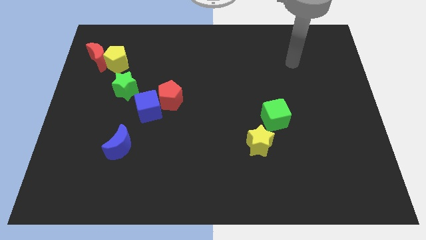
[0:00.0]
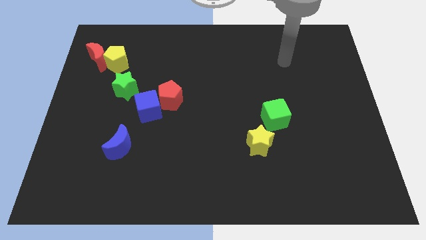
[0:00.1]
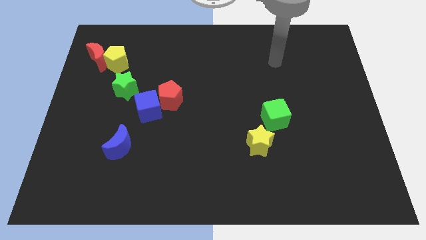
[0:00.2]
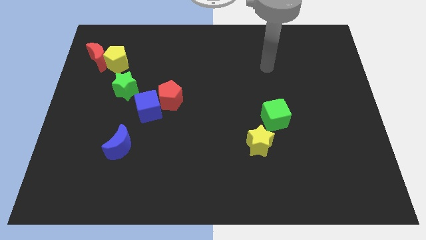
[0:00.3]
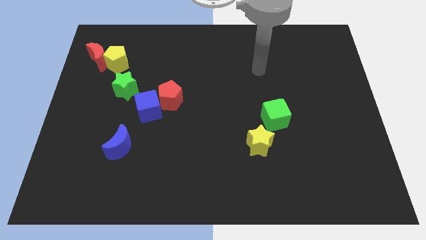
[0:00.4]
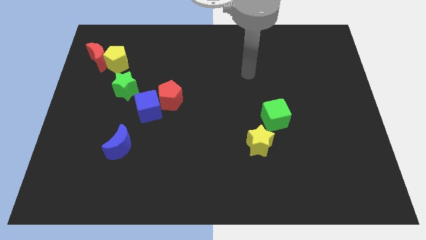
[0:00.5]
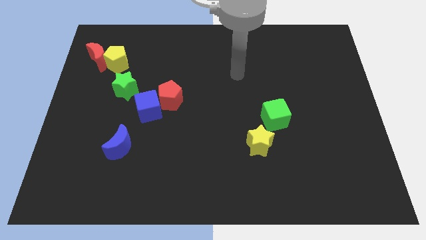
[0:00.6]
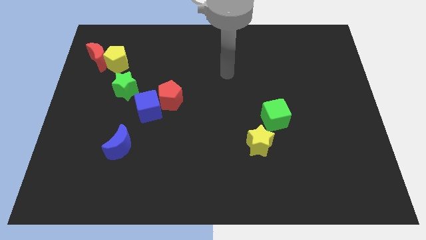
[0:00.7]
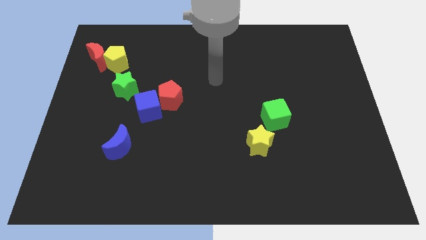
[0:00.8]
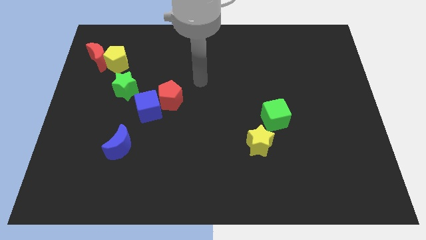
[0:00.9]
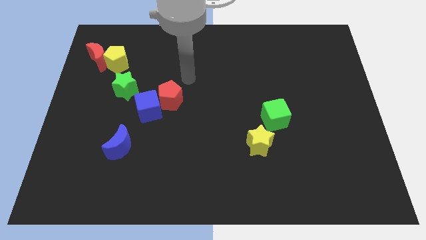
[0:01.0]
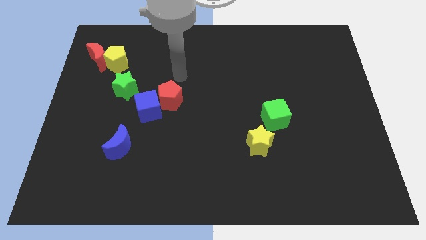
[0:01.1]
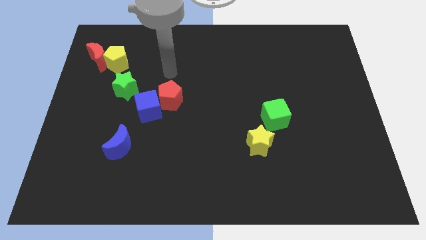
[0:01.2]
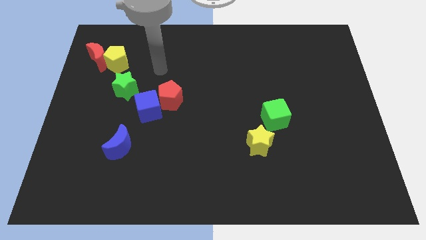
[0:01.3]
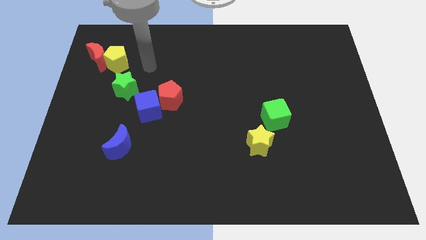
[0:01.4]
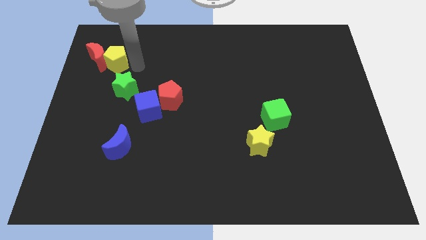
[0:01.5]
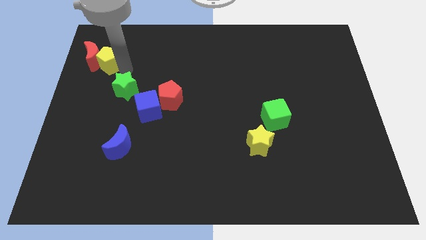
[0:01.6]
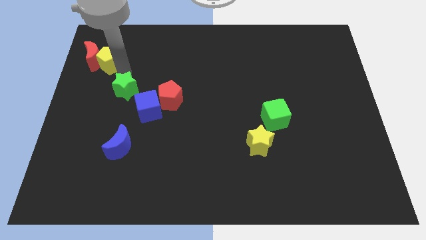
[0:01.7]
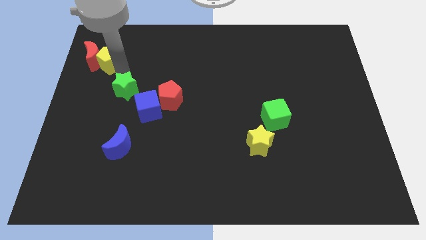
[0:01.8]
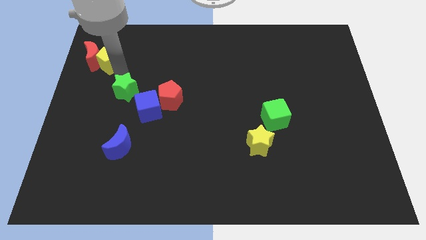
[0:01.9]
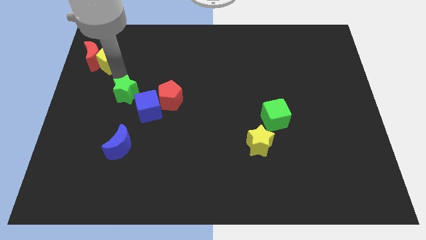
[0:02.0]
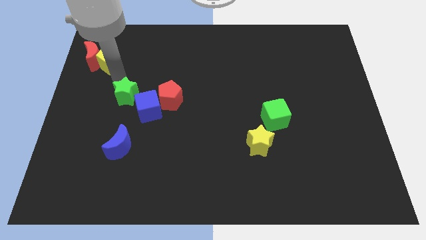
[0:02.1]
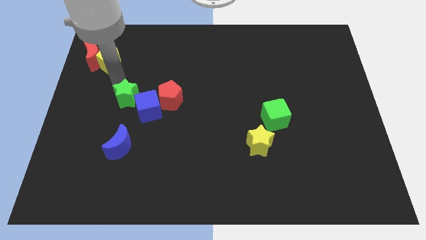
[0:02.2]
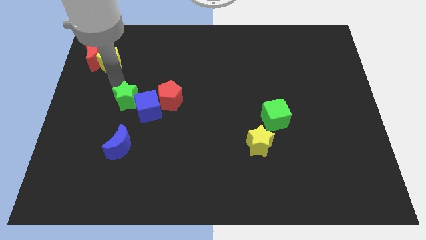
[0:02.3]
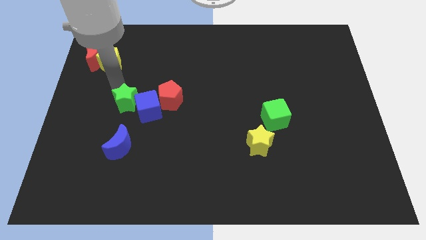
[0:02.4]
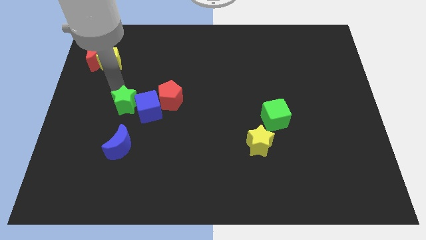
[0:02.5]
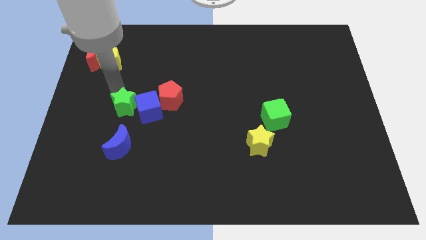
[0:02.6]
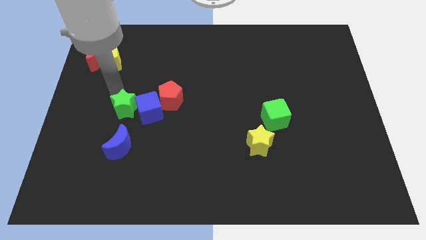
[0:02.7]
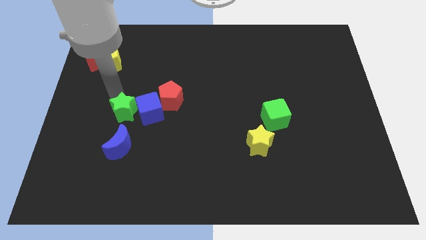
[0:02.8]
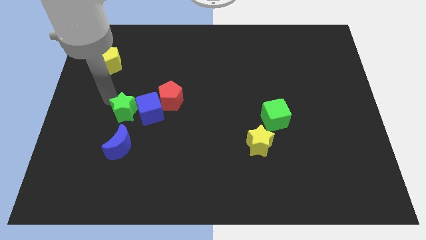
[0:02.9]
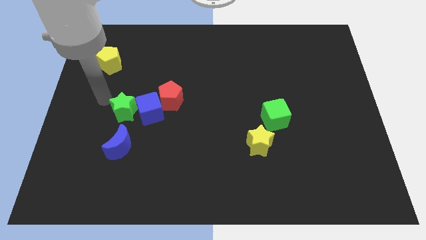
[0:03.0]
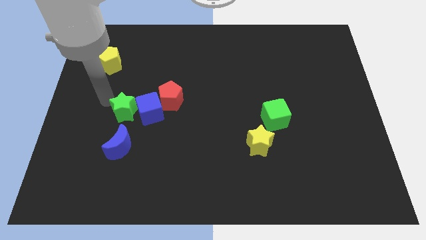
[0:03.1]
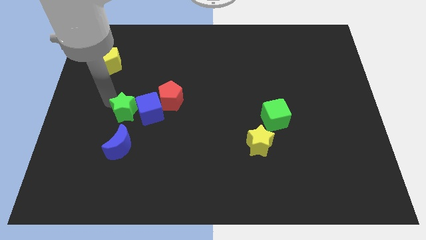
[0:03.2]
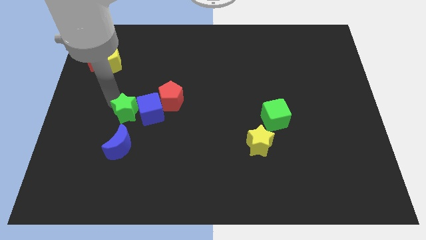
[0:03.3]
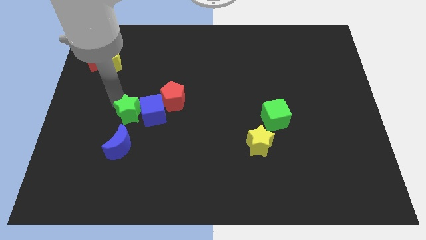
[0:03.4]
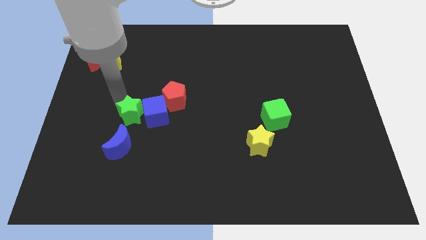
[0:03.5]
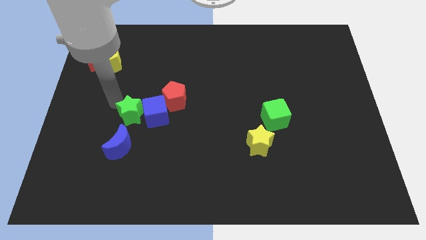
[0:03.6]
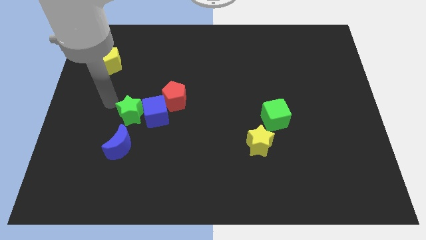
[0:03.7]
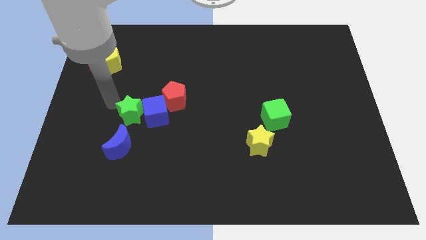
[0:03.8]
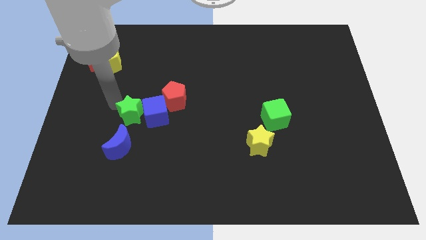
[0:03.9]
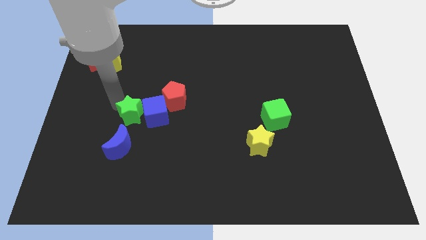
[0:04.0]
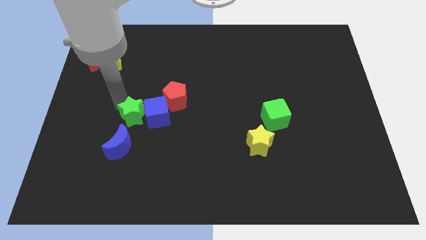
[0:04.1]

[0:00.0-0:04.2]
move the green star a little bit diagonally downwards and right

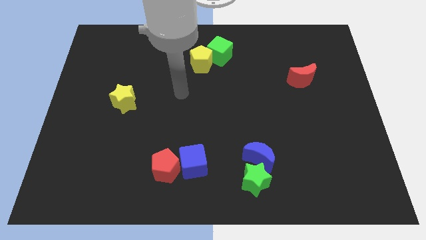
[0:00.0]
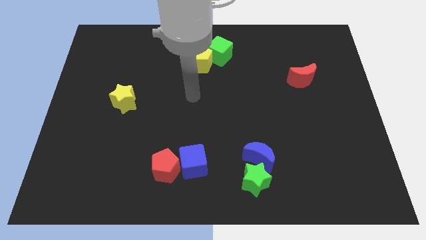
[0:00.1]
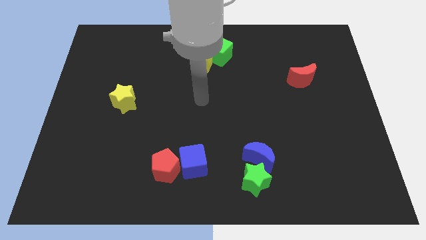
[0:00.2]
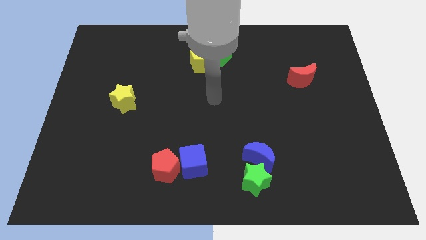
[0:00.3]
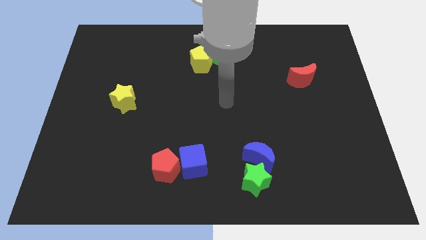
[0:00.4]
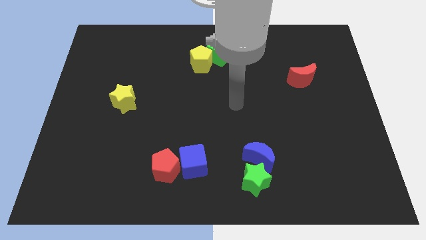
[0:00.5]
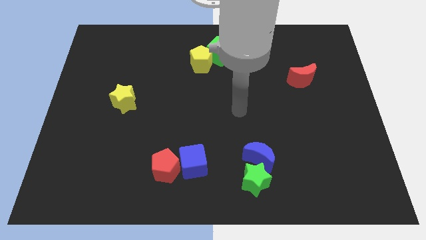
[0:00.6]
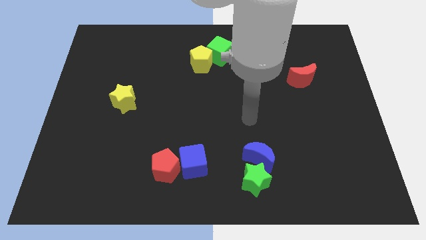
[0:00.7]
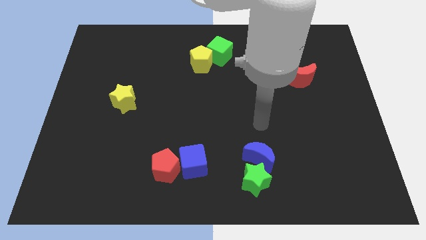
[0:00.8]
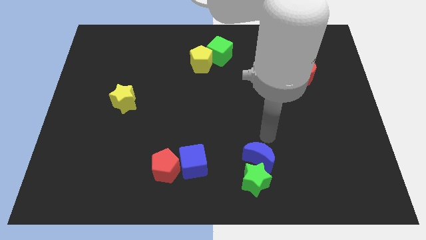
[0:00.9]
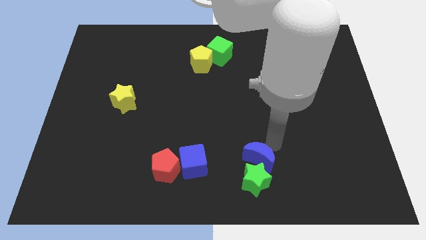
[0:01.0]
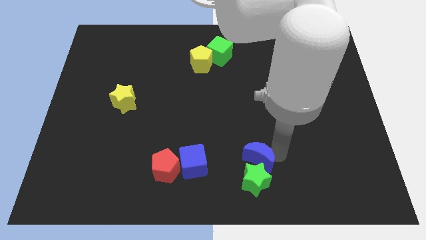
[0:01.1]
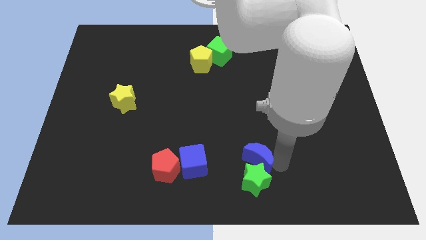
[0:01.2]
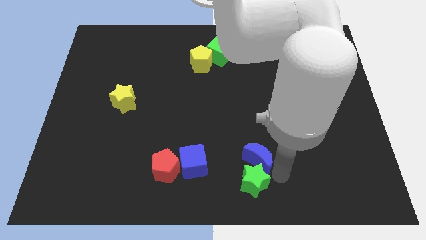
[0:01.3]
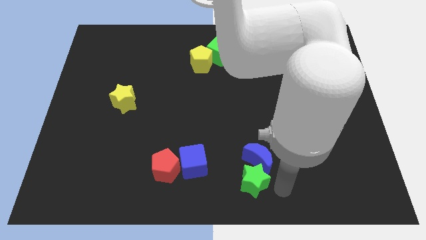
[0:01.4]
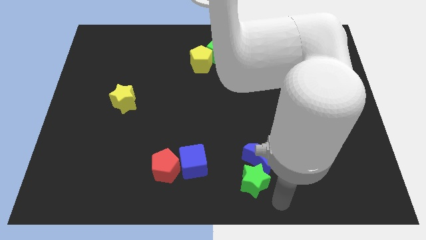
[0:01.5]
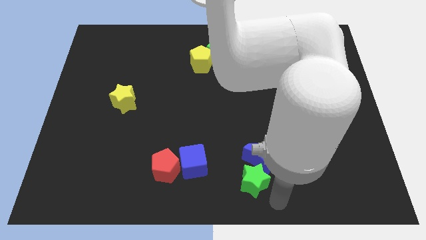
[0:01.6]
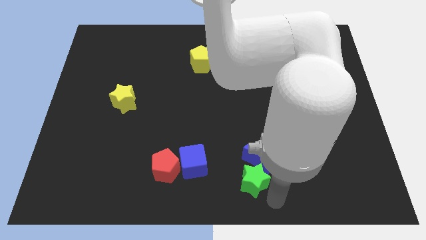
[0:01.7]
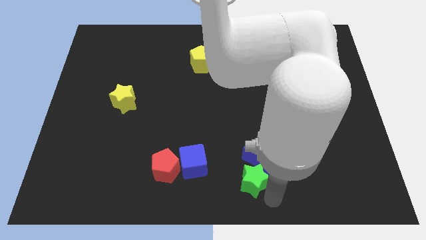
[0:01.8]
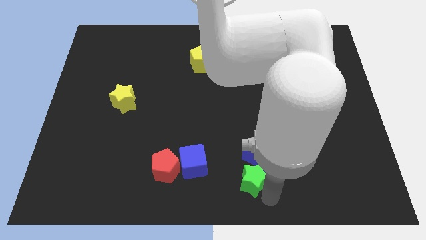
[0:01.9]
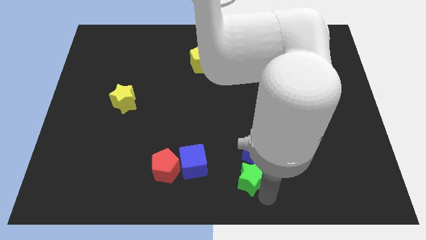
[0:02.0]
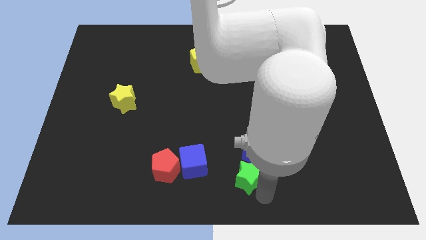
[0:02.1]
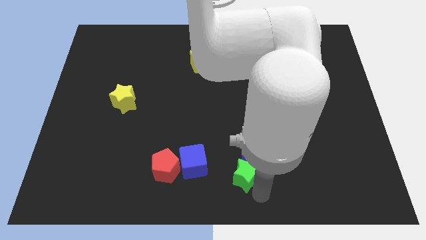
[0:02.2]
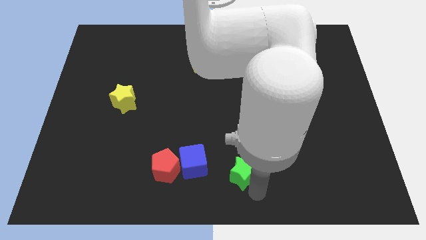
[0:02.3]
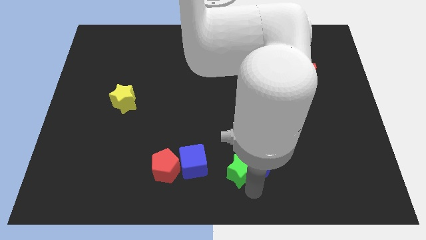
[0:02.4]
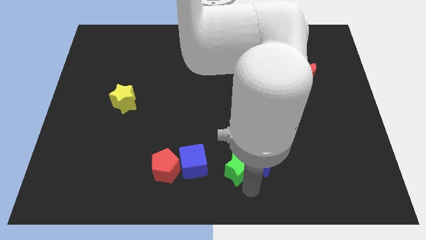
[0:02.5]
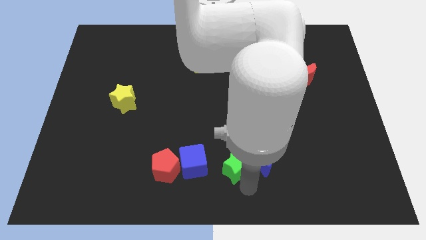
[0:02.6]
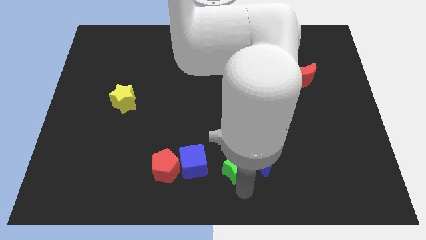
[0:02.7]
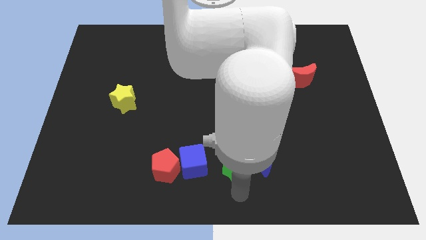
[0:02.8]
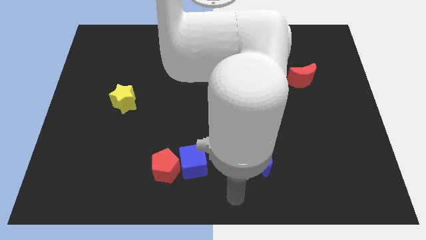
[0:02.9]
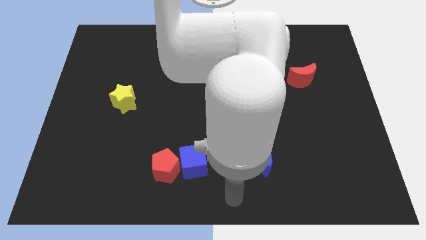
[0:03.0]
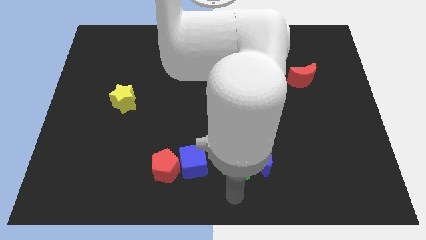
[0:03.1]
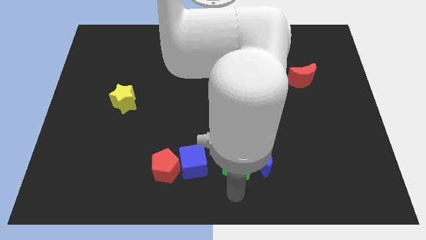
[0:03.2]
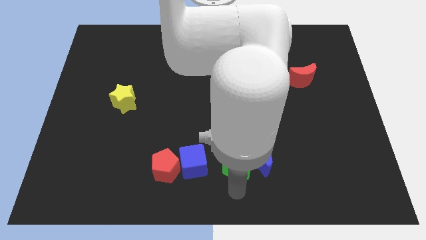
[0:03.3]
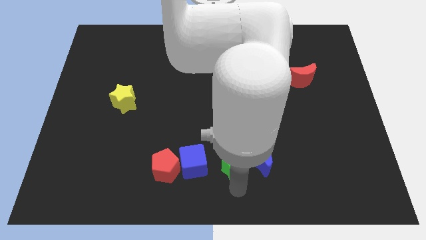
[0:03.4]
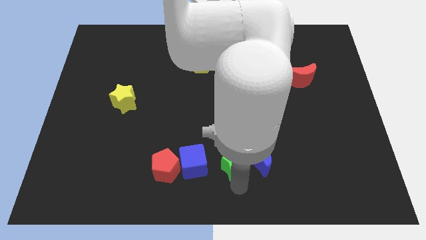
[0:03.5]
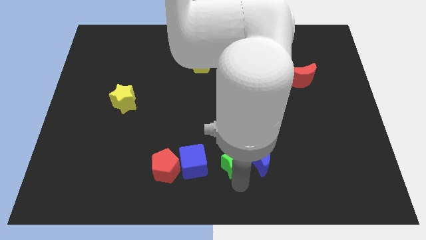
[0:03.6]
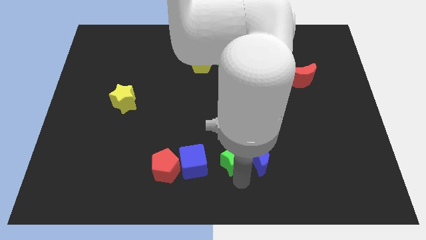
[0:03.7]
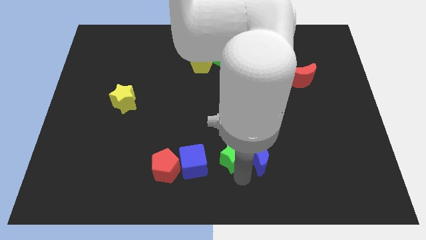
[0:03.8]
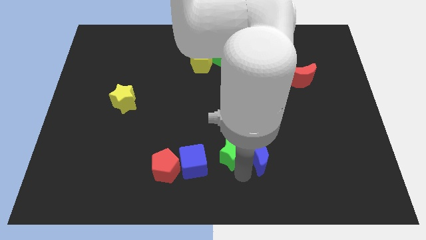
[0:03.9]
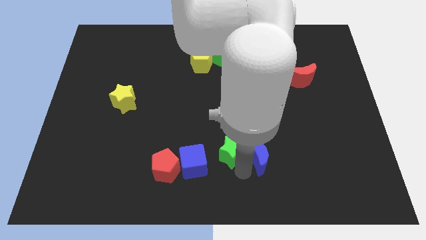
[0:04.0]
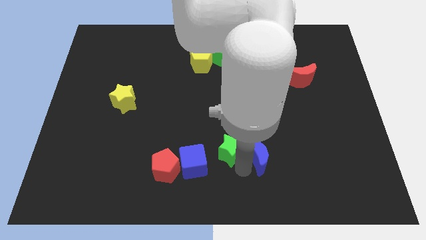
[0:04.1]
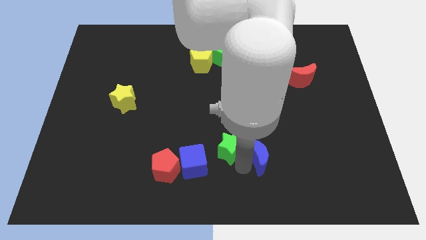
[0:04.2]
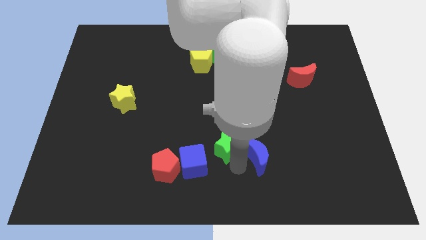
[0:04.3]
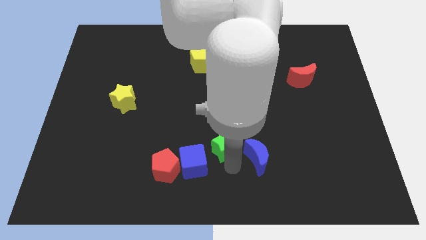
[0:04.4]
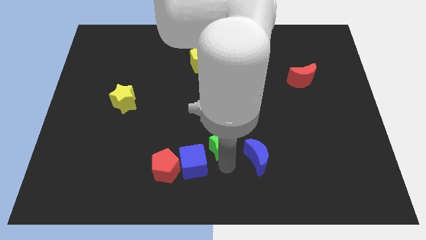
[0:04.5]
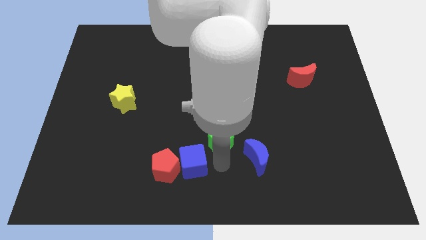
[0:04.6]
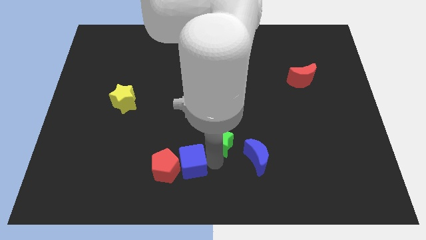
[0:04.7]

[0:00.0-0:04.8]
slide the green star slightly up
